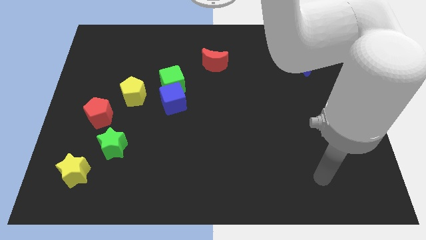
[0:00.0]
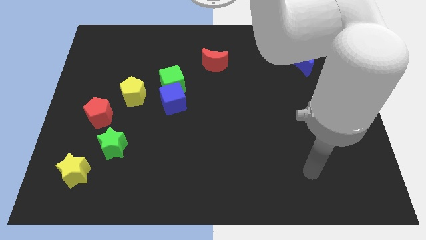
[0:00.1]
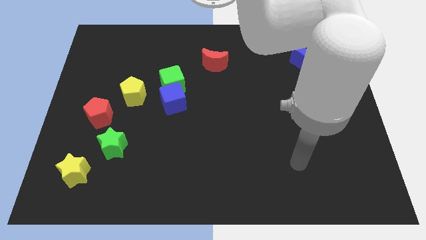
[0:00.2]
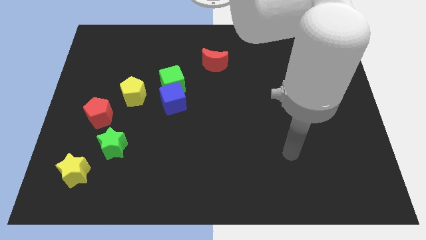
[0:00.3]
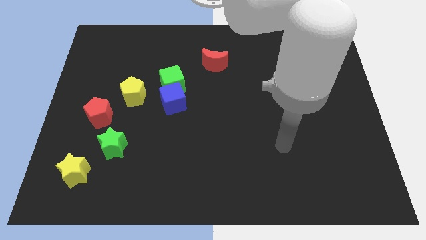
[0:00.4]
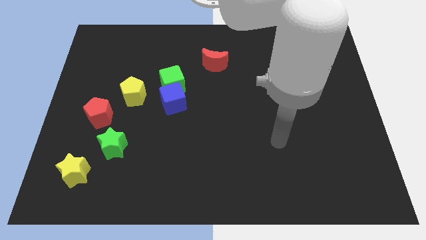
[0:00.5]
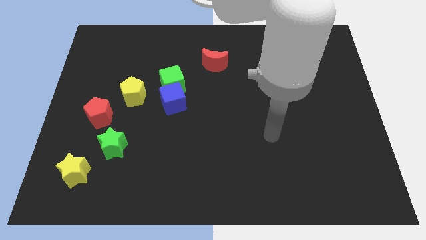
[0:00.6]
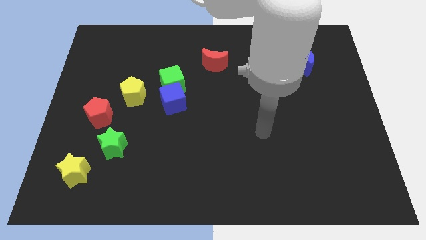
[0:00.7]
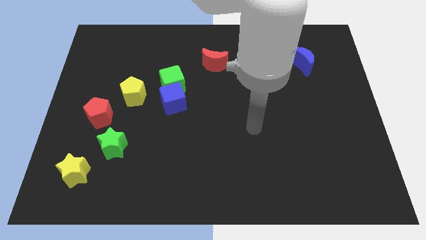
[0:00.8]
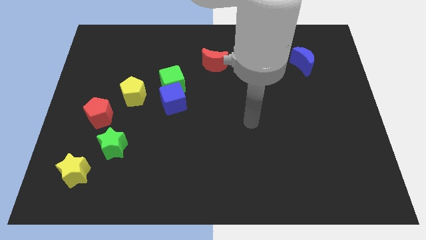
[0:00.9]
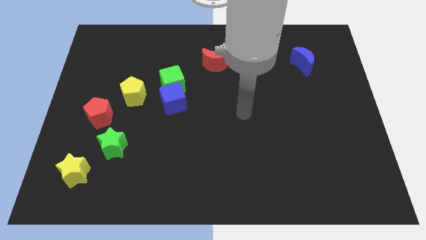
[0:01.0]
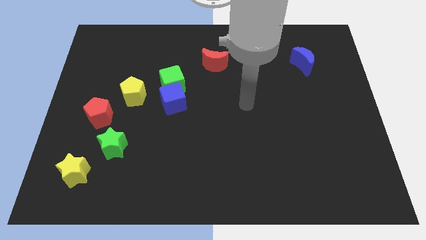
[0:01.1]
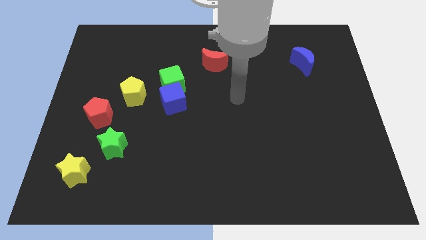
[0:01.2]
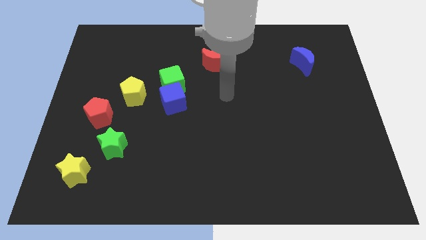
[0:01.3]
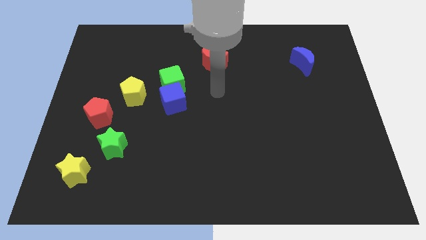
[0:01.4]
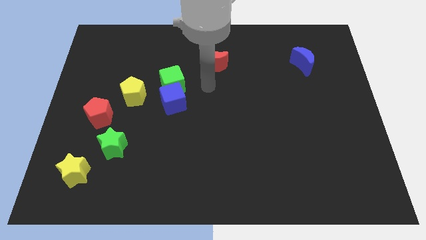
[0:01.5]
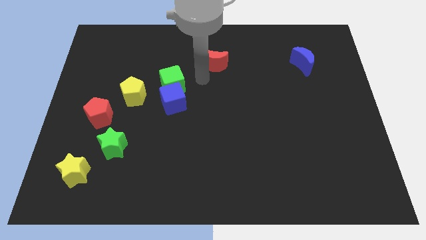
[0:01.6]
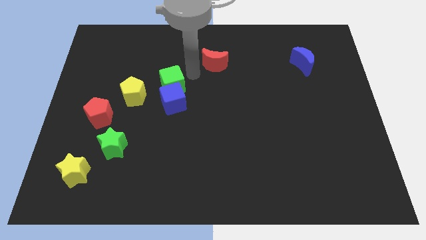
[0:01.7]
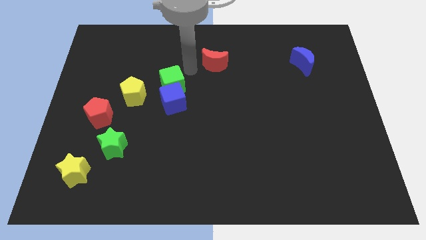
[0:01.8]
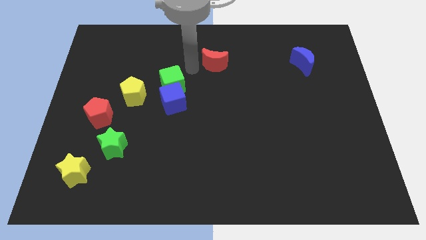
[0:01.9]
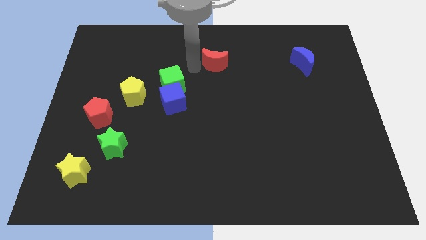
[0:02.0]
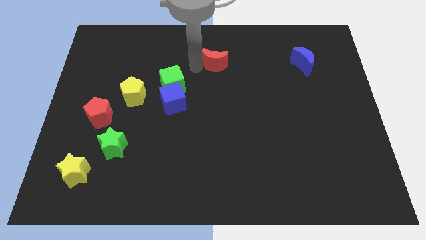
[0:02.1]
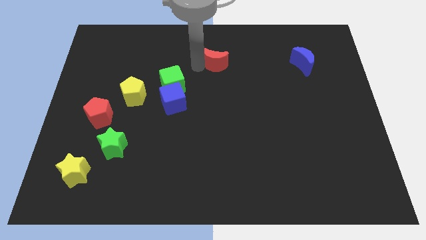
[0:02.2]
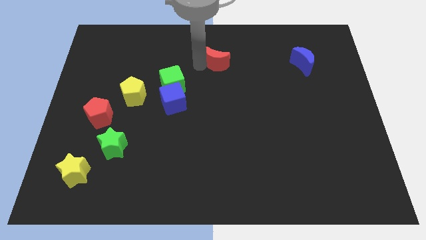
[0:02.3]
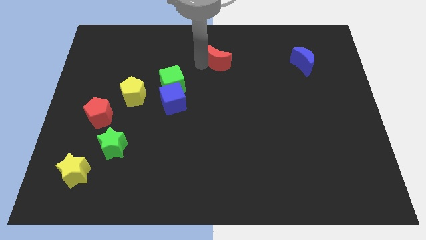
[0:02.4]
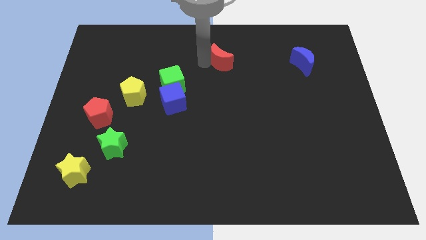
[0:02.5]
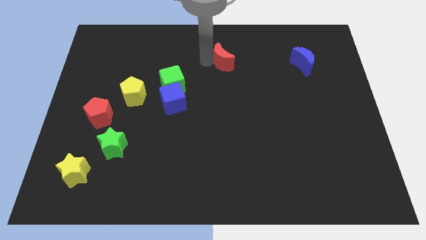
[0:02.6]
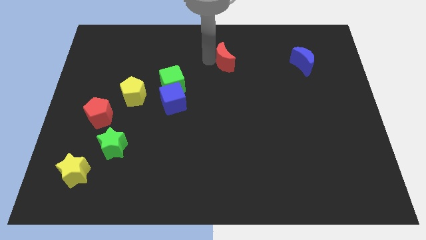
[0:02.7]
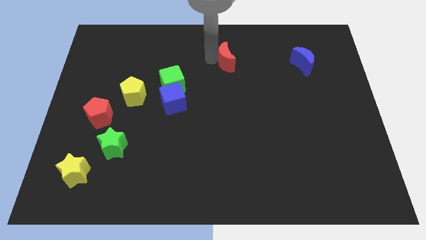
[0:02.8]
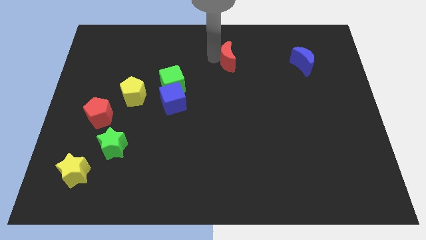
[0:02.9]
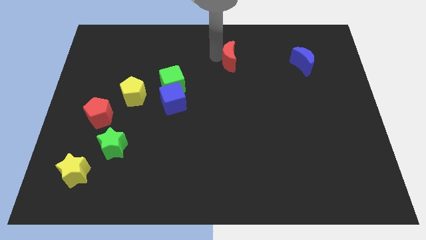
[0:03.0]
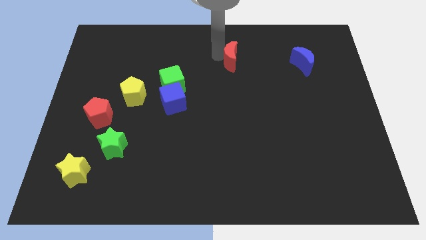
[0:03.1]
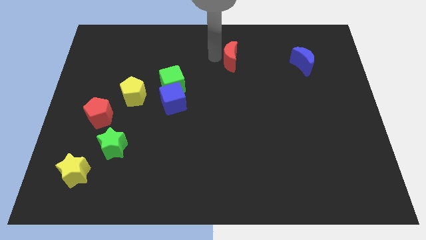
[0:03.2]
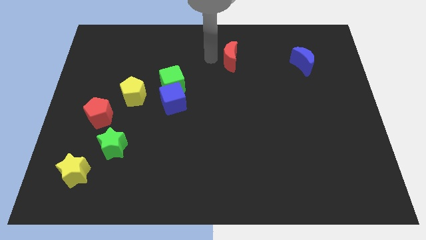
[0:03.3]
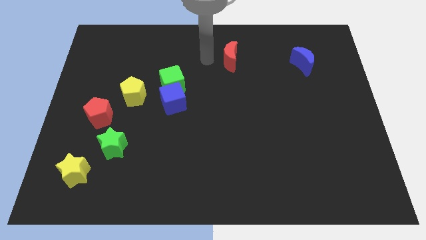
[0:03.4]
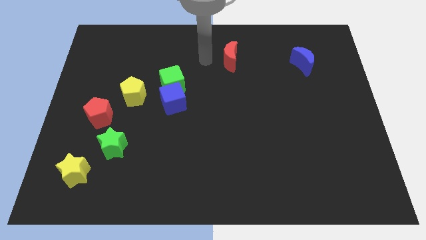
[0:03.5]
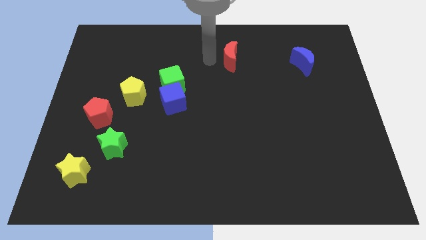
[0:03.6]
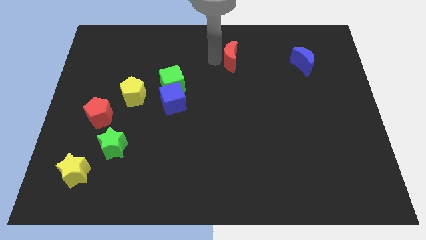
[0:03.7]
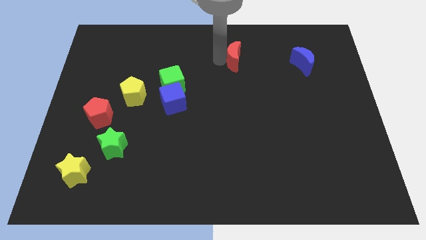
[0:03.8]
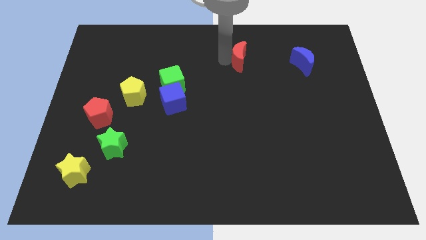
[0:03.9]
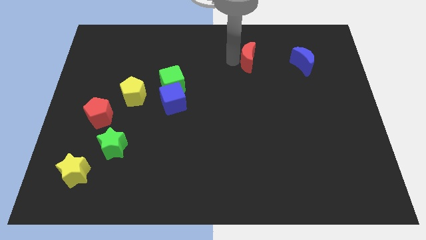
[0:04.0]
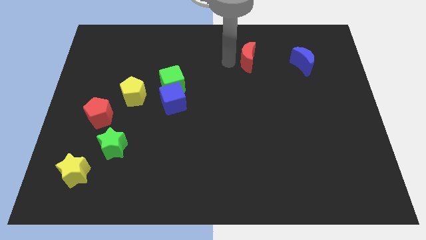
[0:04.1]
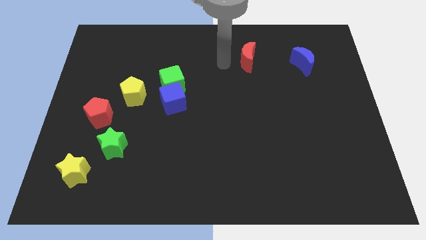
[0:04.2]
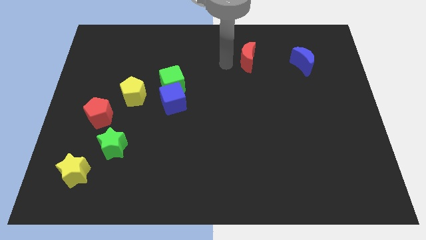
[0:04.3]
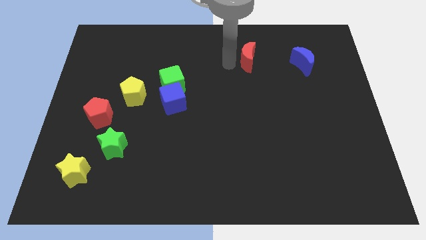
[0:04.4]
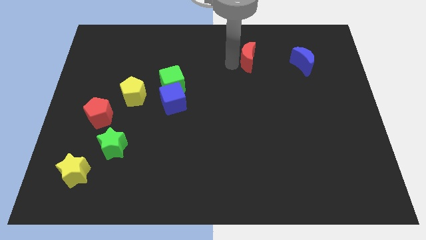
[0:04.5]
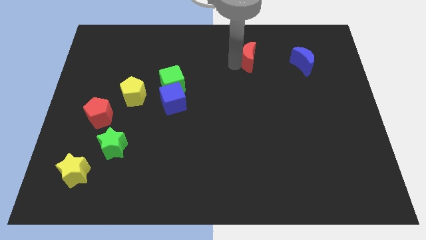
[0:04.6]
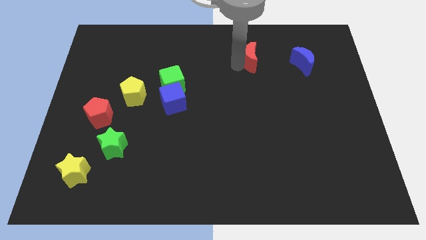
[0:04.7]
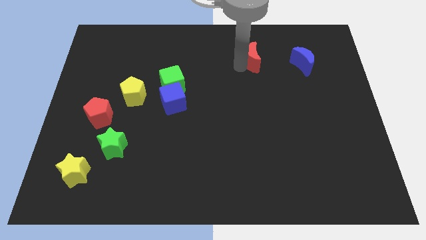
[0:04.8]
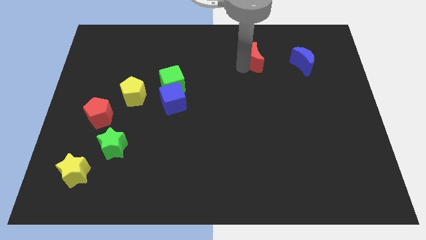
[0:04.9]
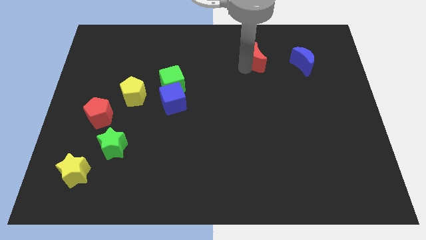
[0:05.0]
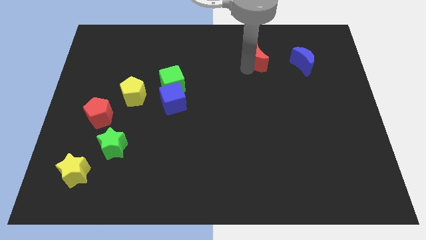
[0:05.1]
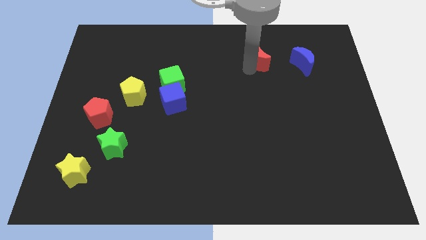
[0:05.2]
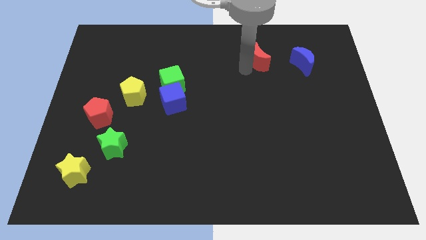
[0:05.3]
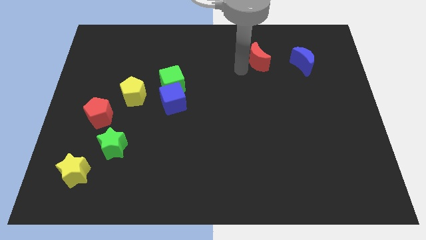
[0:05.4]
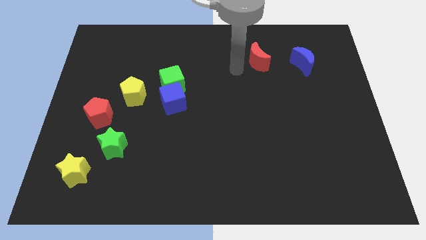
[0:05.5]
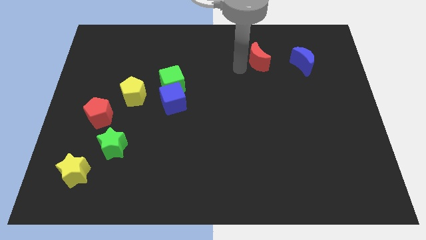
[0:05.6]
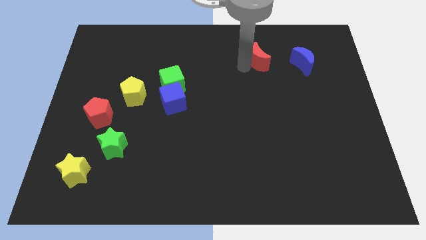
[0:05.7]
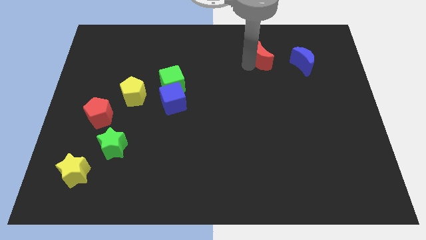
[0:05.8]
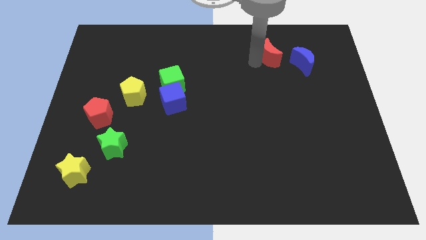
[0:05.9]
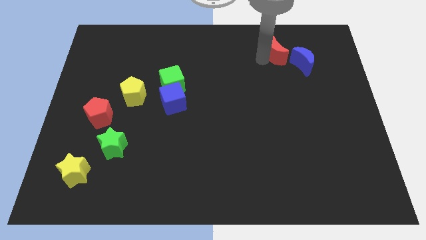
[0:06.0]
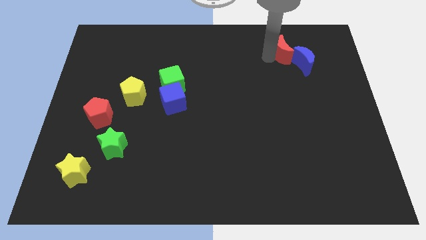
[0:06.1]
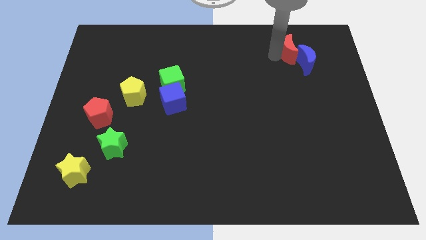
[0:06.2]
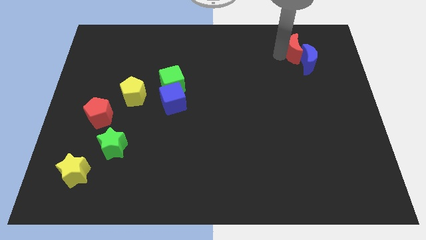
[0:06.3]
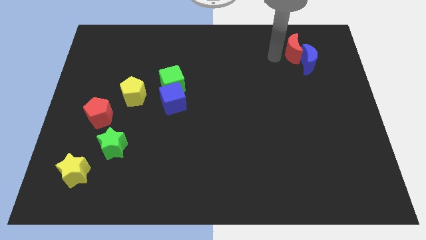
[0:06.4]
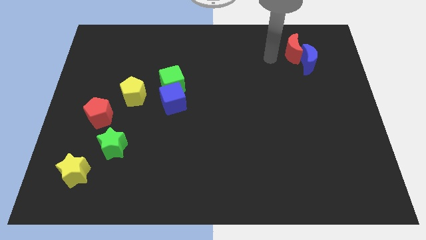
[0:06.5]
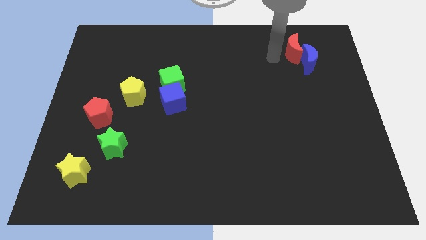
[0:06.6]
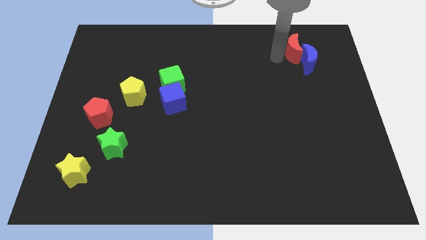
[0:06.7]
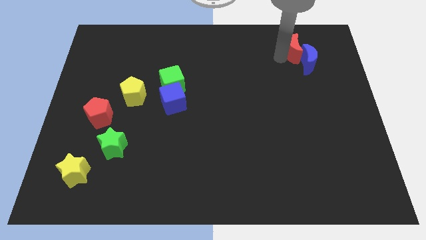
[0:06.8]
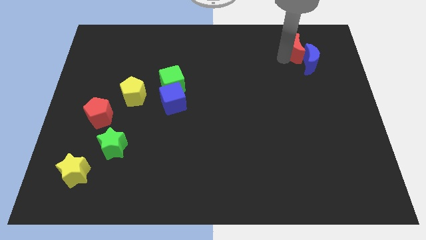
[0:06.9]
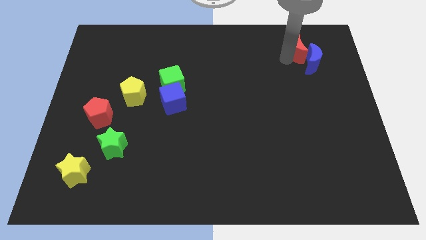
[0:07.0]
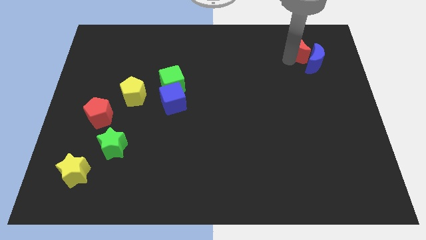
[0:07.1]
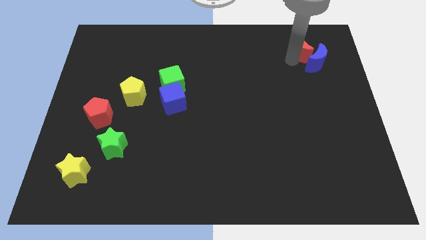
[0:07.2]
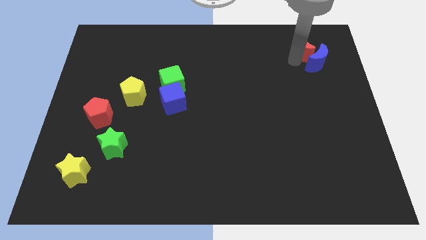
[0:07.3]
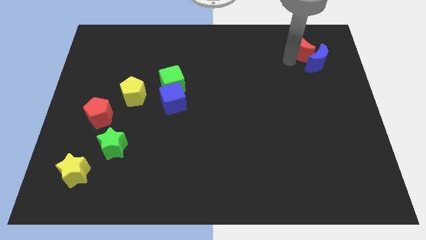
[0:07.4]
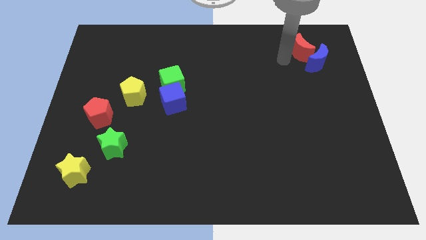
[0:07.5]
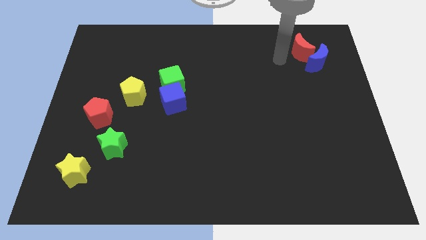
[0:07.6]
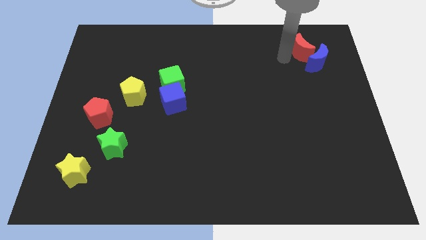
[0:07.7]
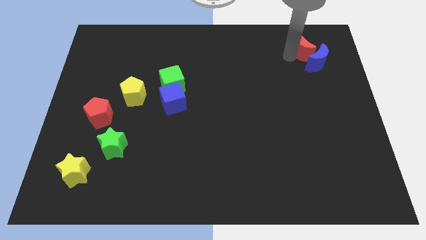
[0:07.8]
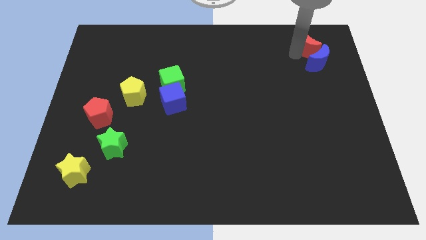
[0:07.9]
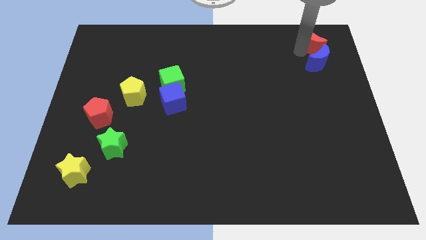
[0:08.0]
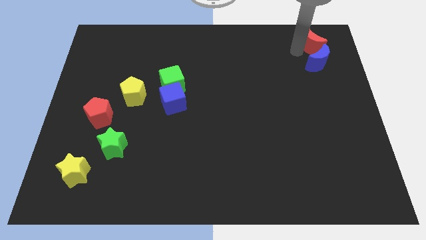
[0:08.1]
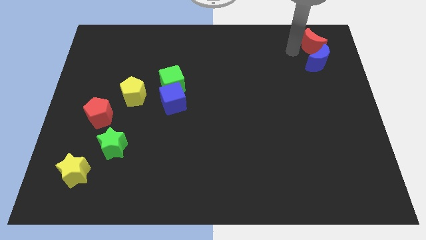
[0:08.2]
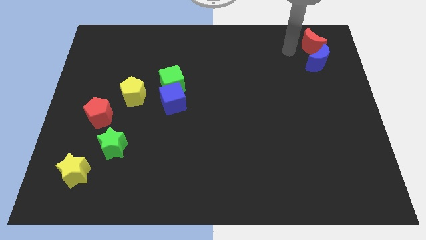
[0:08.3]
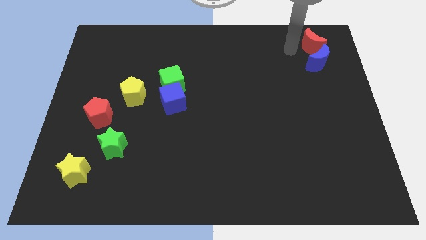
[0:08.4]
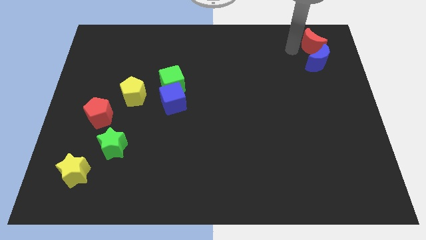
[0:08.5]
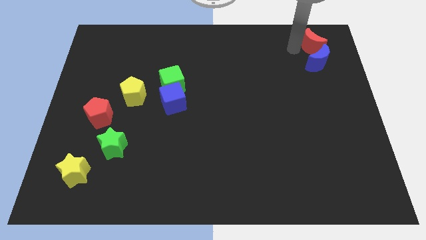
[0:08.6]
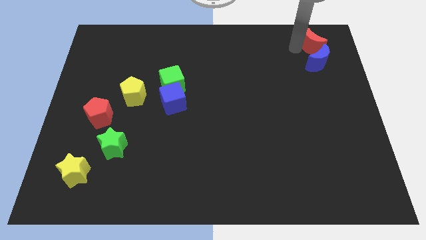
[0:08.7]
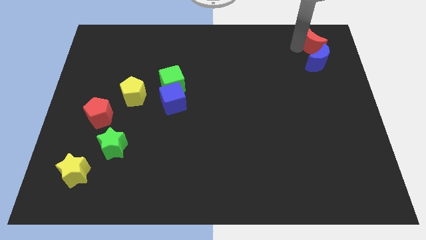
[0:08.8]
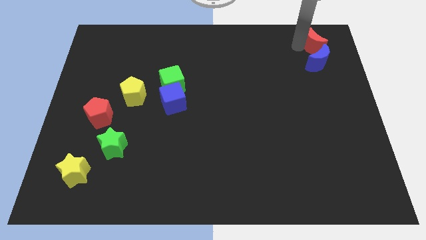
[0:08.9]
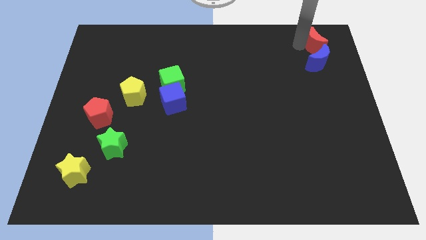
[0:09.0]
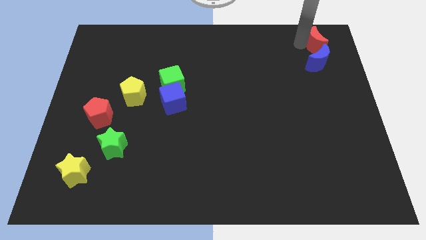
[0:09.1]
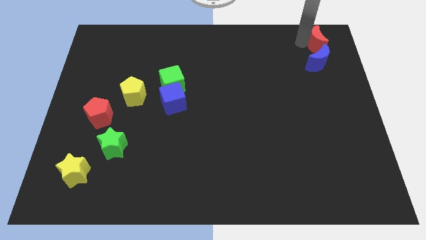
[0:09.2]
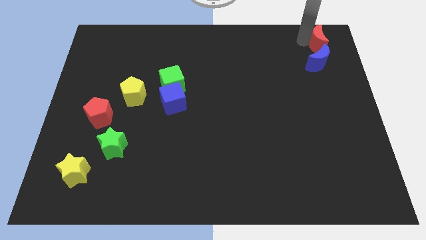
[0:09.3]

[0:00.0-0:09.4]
slide the red moon to the top right corner
